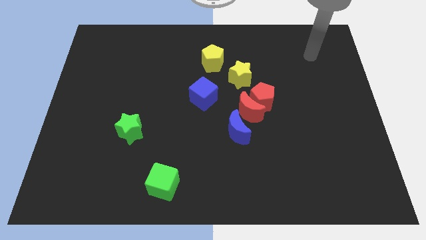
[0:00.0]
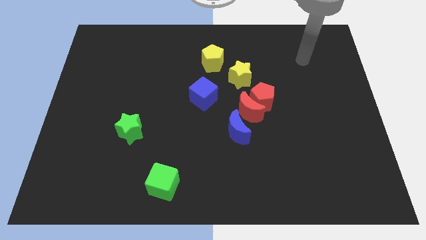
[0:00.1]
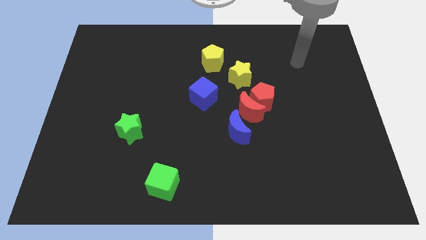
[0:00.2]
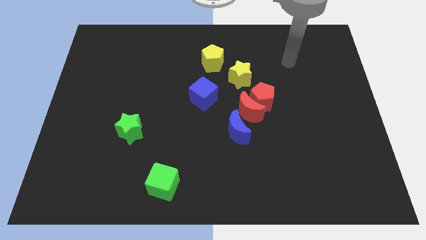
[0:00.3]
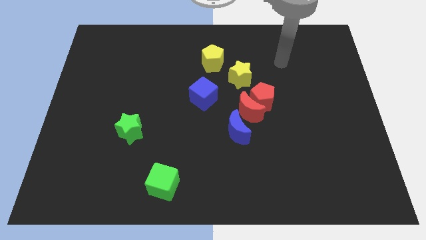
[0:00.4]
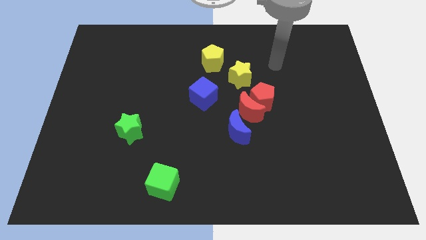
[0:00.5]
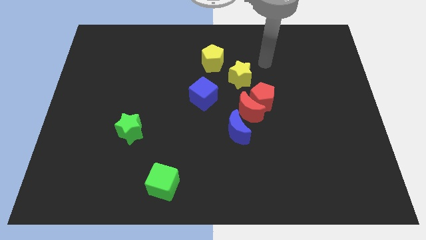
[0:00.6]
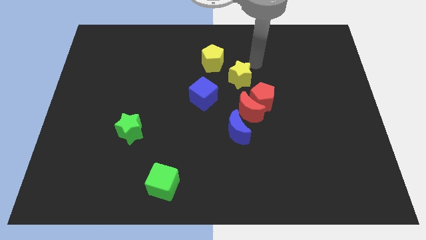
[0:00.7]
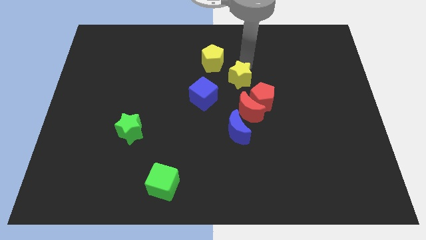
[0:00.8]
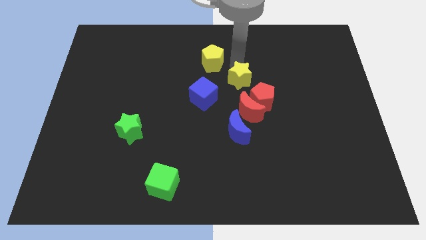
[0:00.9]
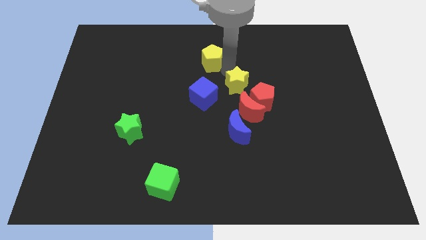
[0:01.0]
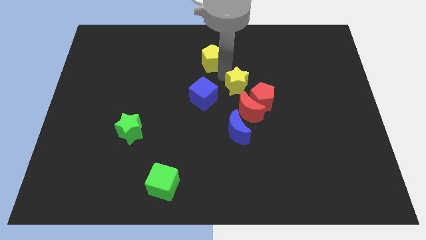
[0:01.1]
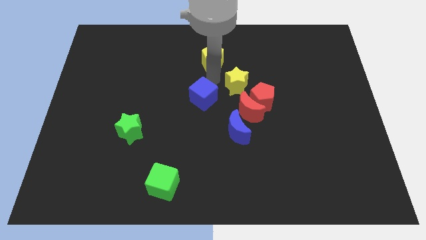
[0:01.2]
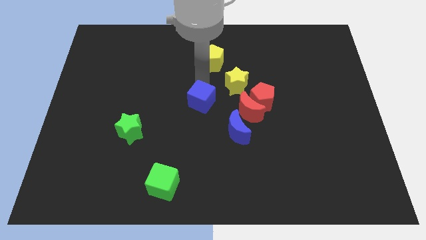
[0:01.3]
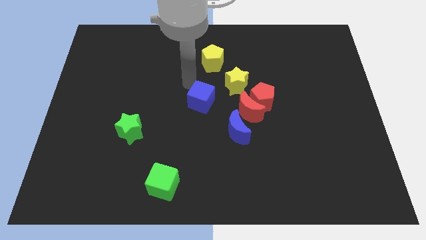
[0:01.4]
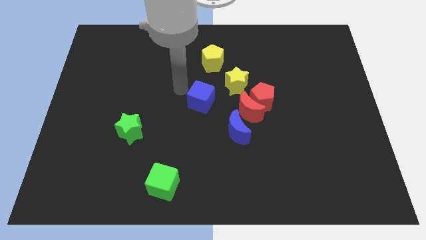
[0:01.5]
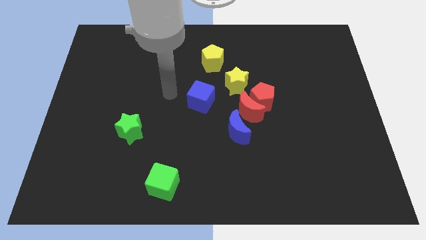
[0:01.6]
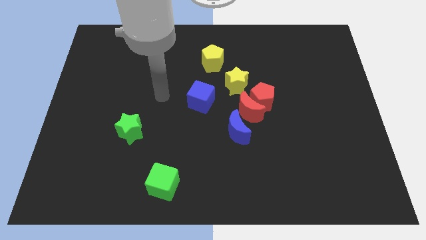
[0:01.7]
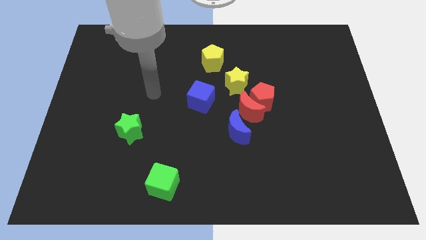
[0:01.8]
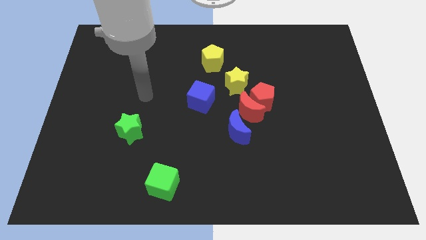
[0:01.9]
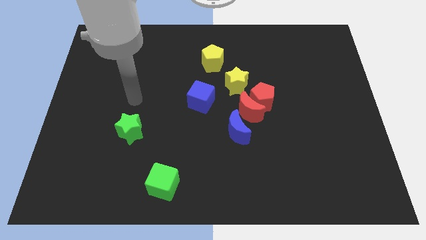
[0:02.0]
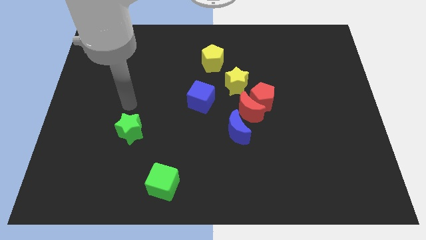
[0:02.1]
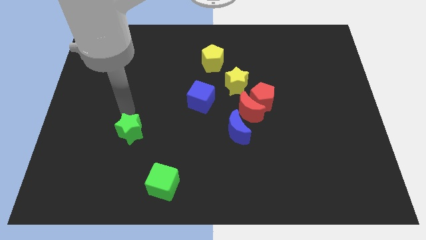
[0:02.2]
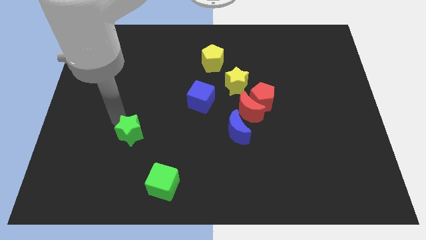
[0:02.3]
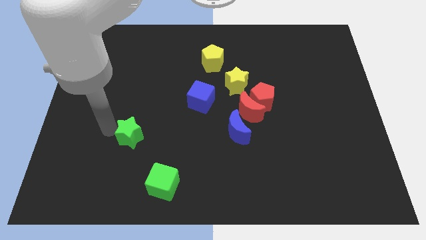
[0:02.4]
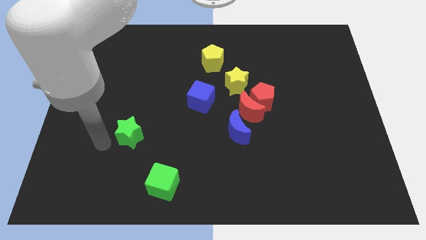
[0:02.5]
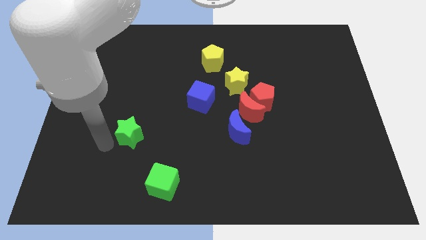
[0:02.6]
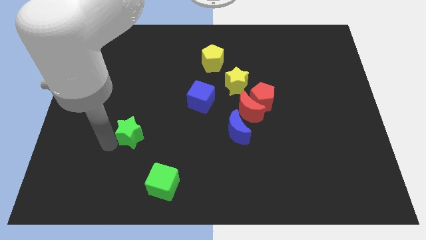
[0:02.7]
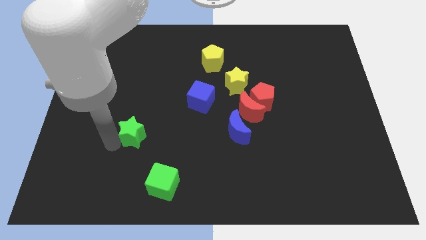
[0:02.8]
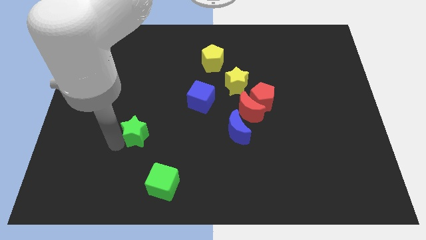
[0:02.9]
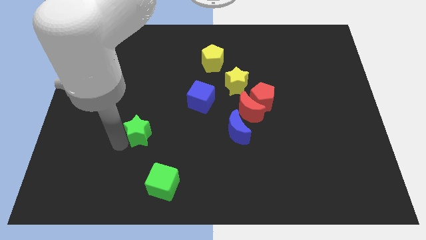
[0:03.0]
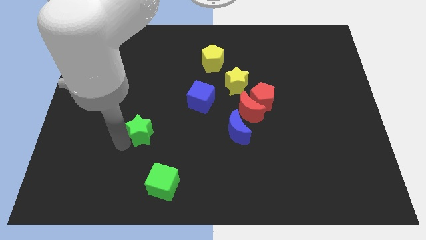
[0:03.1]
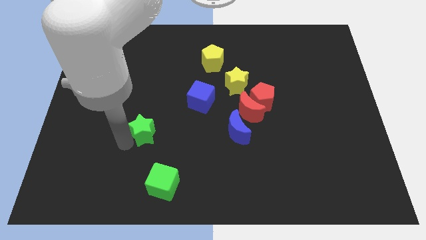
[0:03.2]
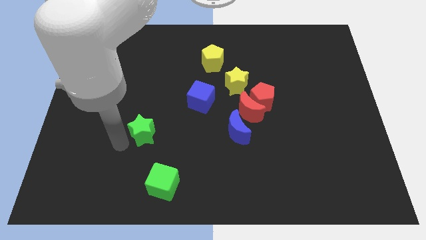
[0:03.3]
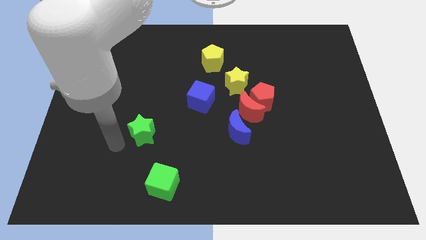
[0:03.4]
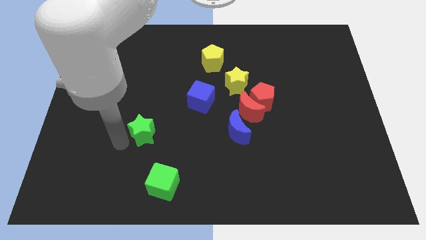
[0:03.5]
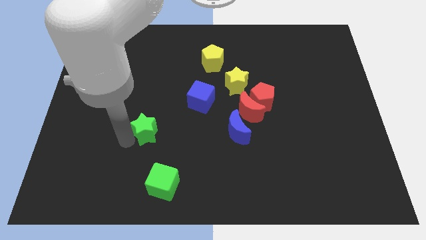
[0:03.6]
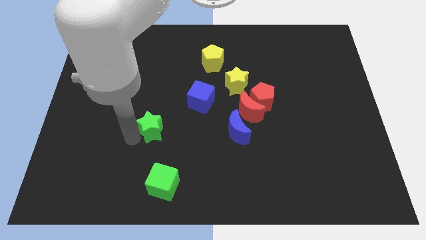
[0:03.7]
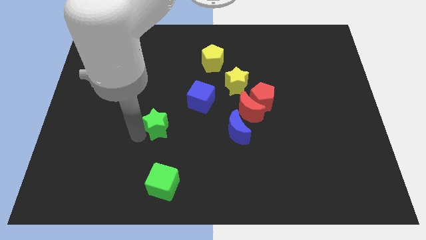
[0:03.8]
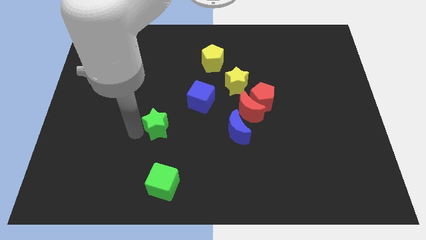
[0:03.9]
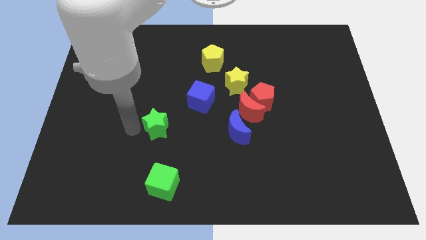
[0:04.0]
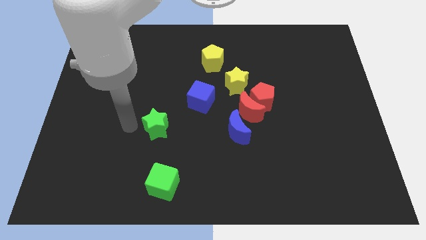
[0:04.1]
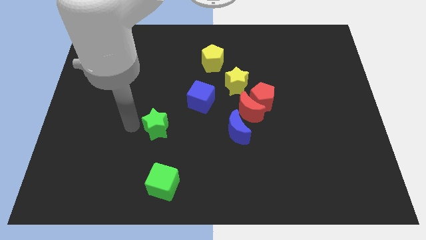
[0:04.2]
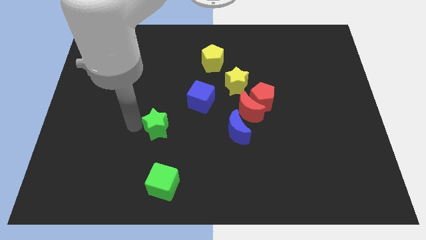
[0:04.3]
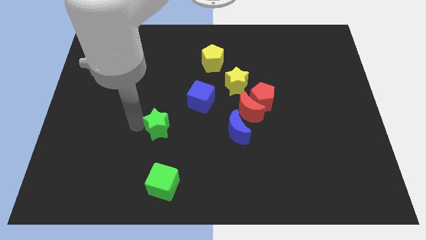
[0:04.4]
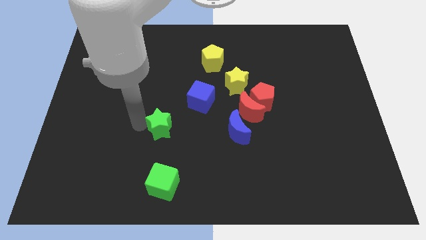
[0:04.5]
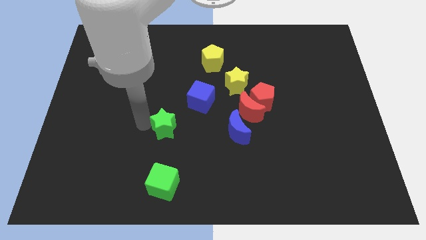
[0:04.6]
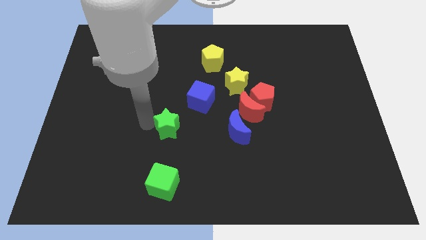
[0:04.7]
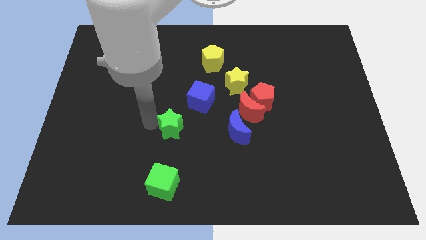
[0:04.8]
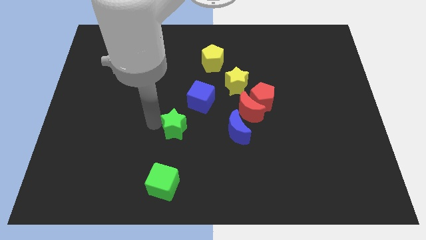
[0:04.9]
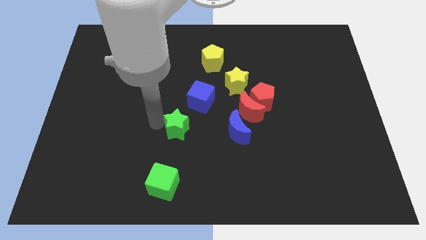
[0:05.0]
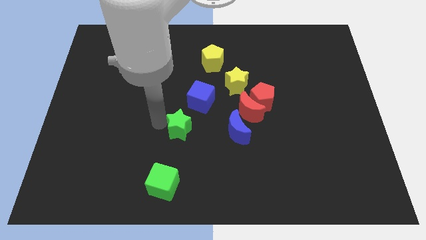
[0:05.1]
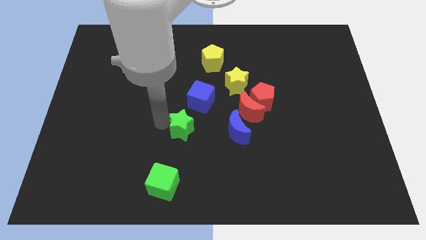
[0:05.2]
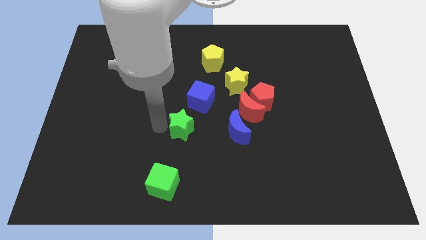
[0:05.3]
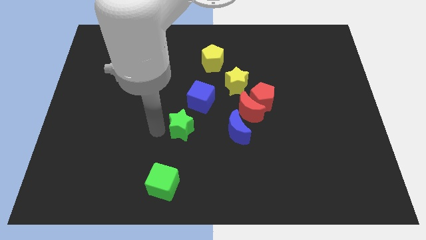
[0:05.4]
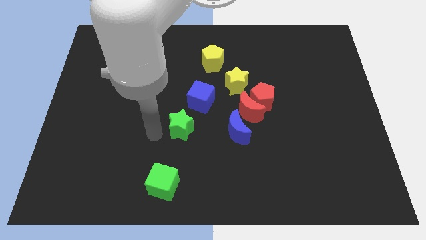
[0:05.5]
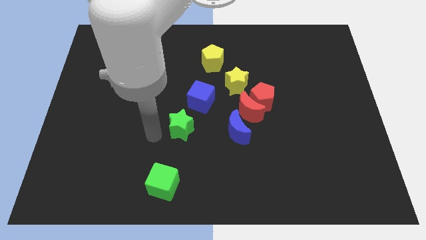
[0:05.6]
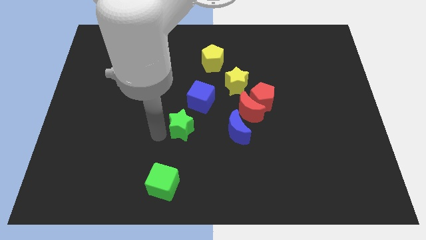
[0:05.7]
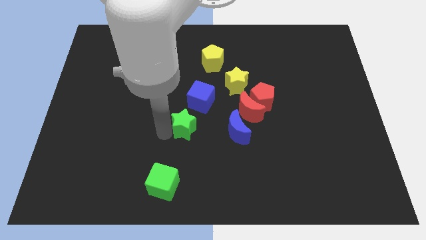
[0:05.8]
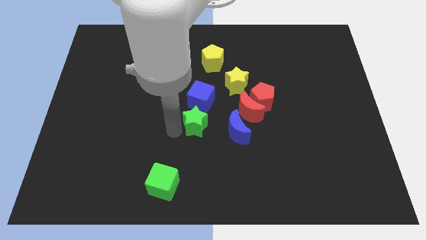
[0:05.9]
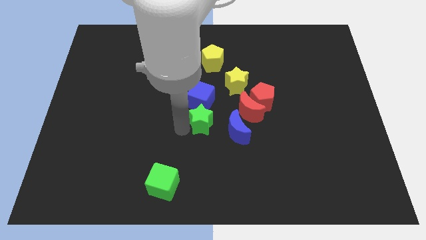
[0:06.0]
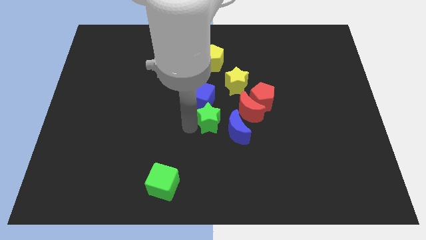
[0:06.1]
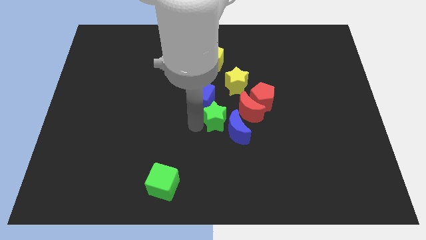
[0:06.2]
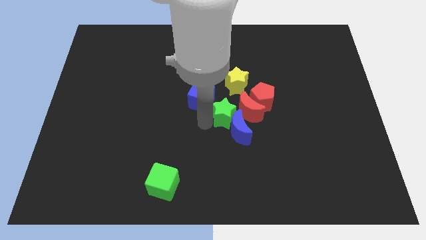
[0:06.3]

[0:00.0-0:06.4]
move the green star next to the red moon

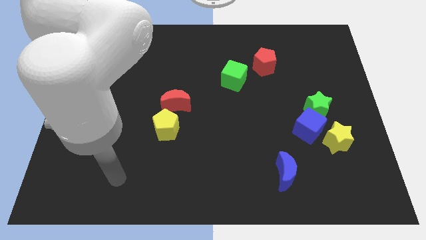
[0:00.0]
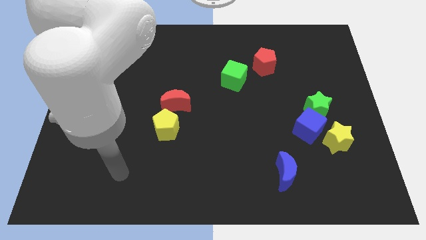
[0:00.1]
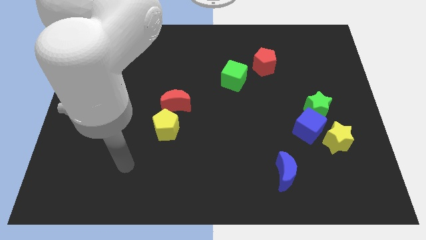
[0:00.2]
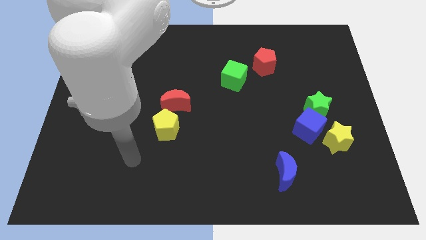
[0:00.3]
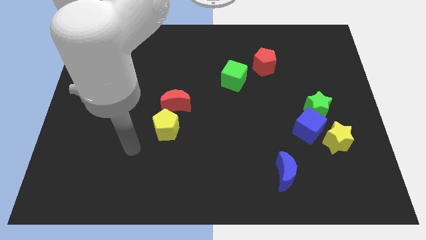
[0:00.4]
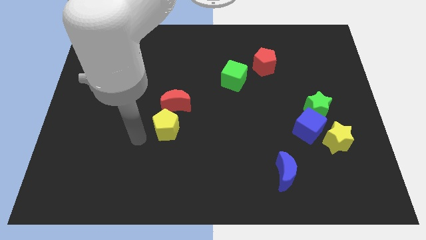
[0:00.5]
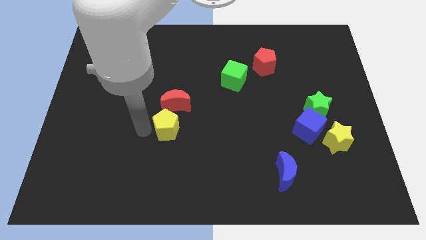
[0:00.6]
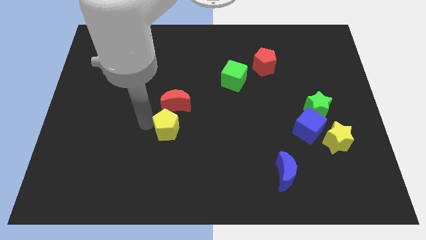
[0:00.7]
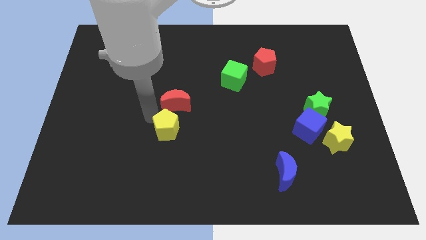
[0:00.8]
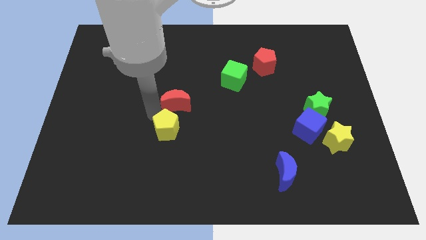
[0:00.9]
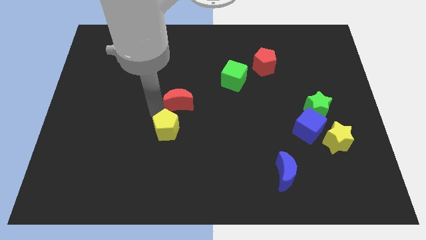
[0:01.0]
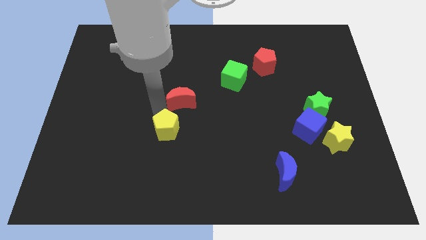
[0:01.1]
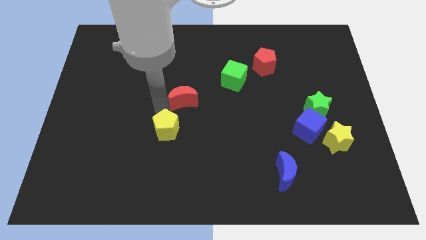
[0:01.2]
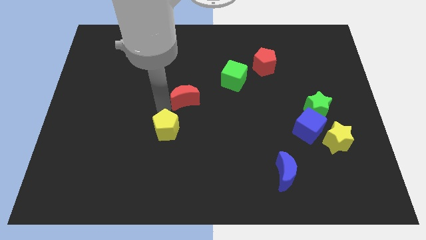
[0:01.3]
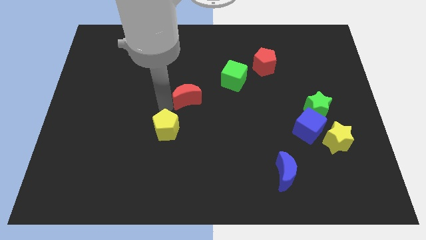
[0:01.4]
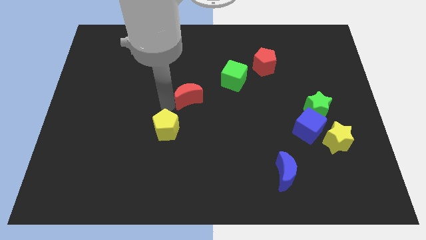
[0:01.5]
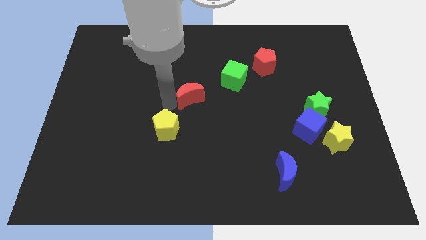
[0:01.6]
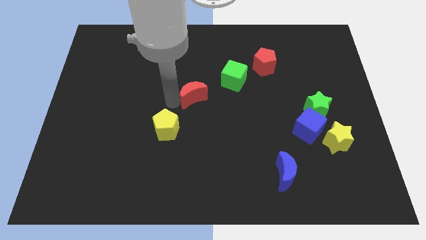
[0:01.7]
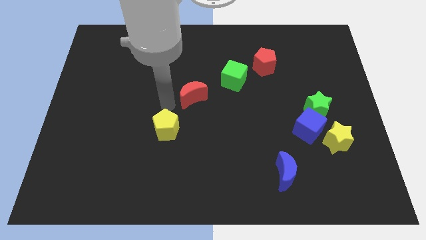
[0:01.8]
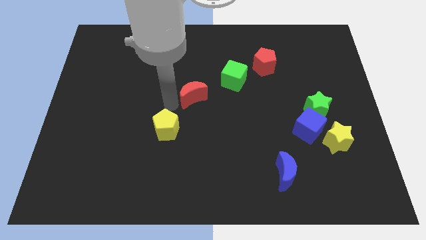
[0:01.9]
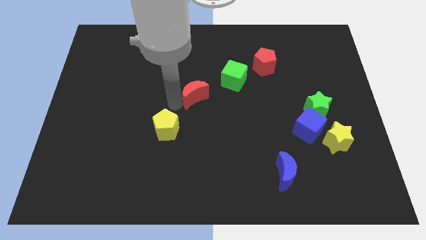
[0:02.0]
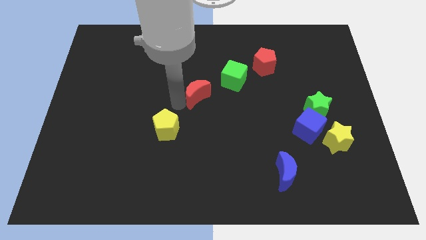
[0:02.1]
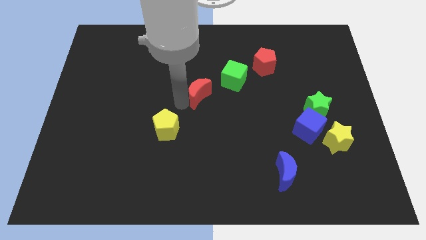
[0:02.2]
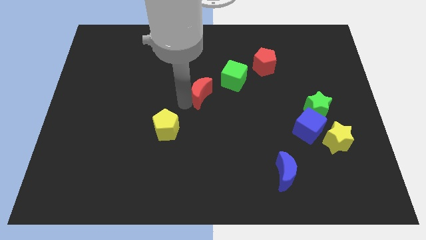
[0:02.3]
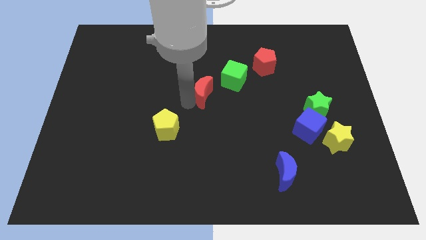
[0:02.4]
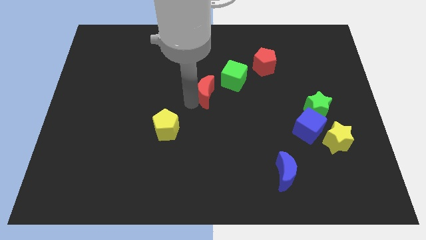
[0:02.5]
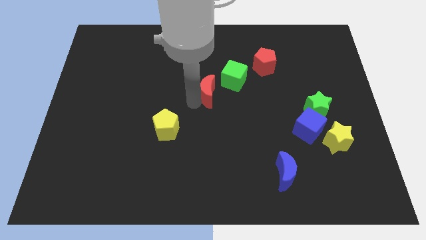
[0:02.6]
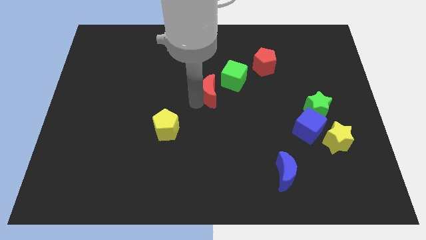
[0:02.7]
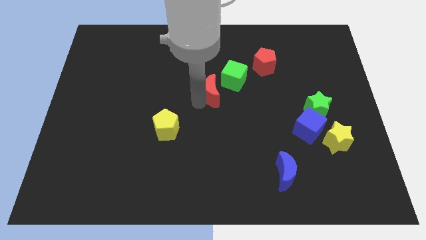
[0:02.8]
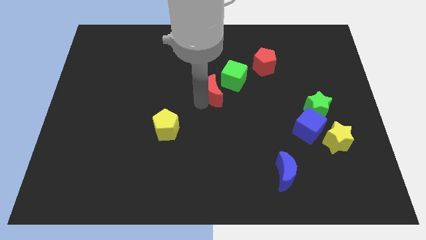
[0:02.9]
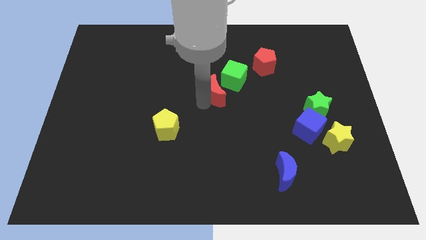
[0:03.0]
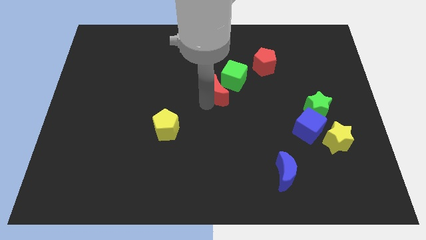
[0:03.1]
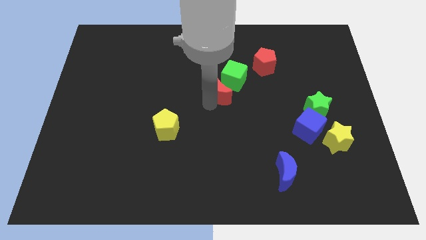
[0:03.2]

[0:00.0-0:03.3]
put the red moon to the green cube
